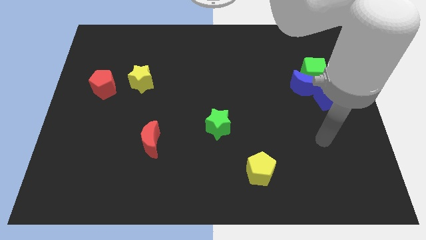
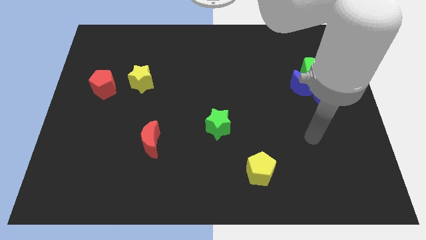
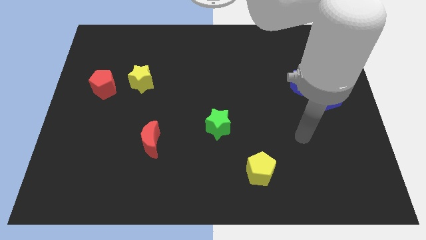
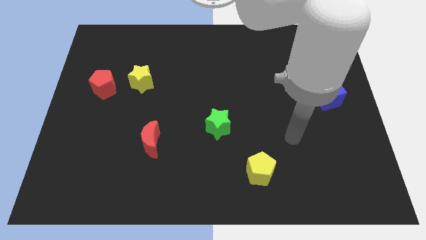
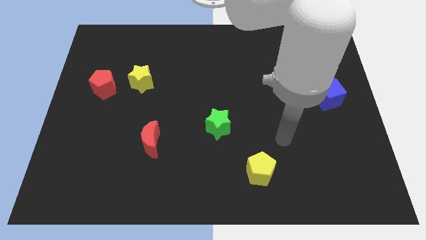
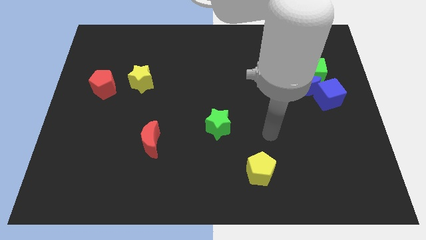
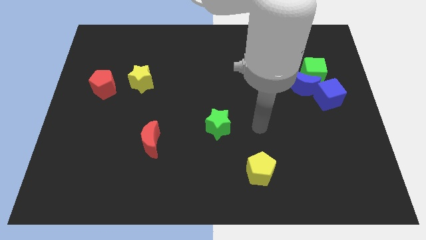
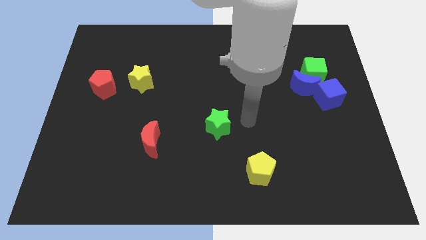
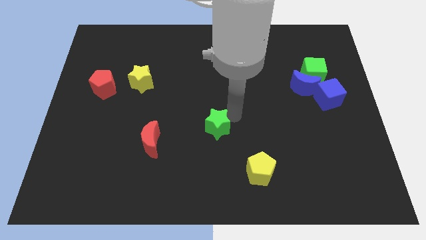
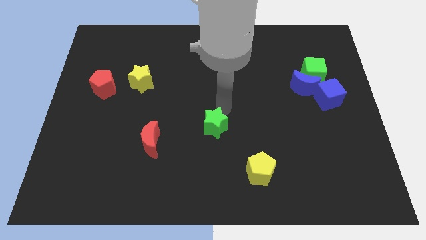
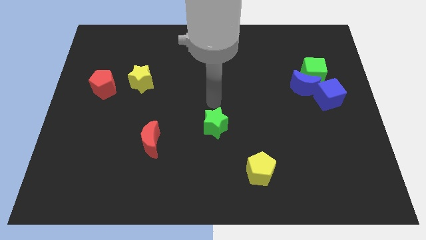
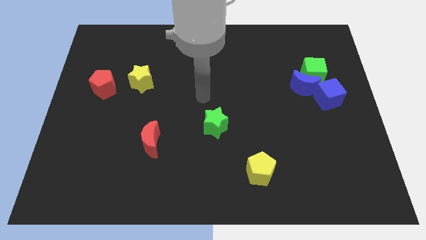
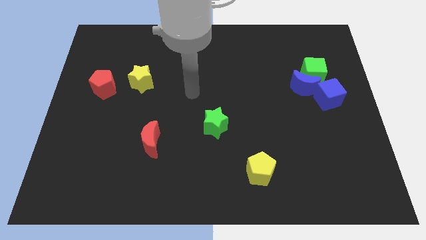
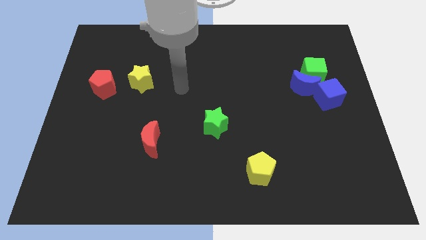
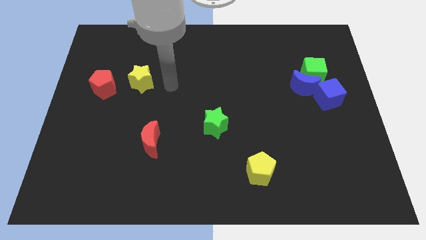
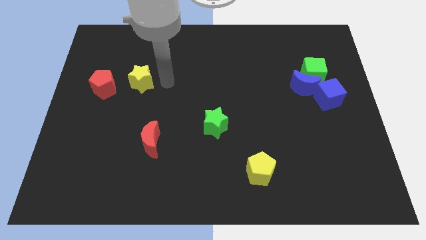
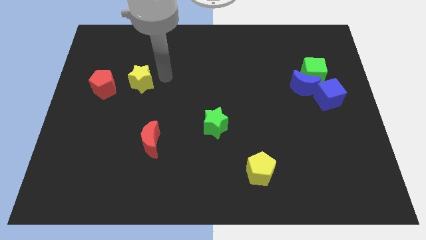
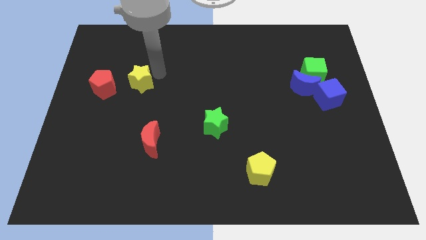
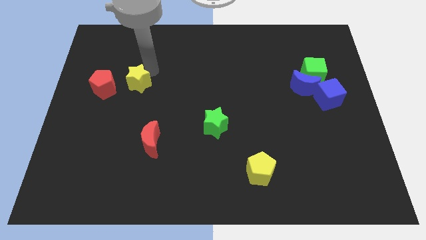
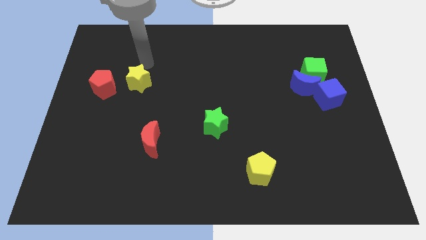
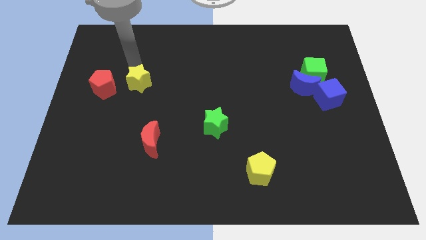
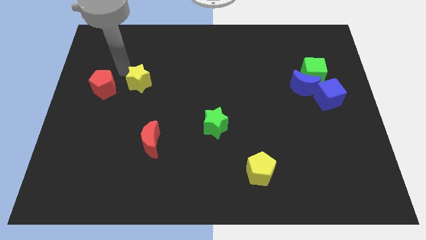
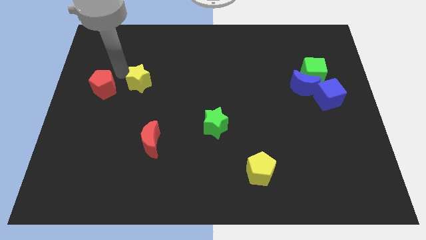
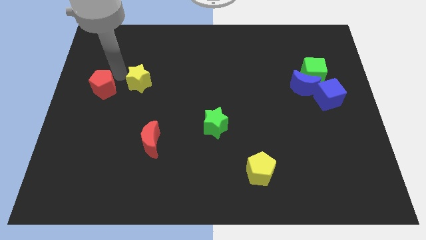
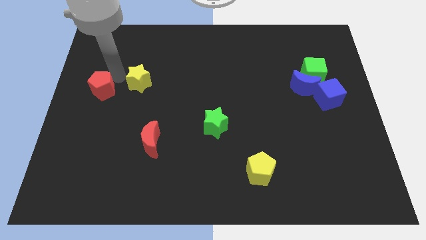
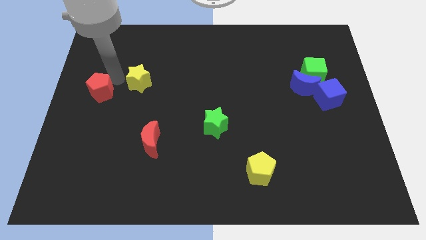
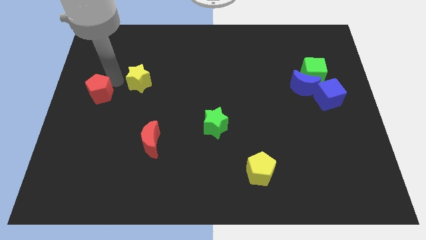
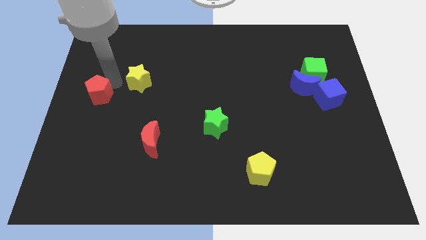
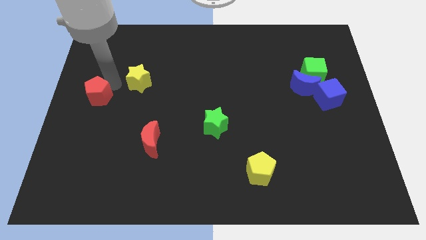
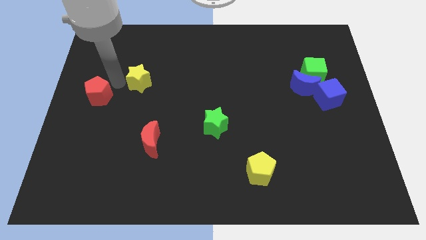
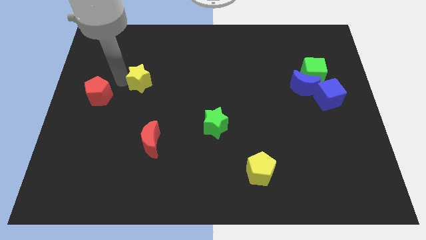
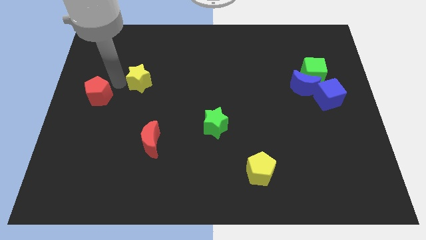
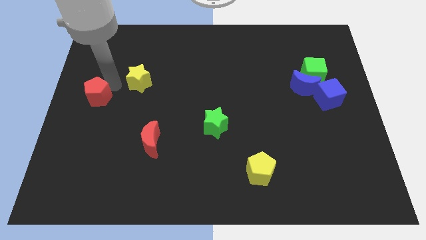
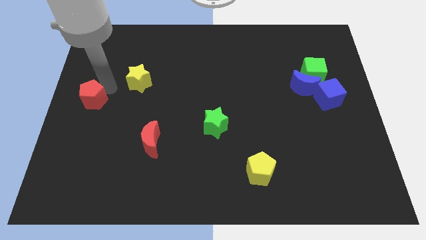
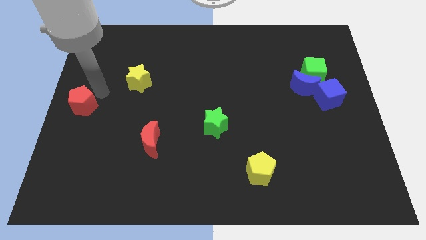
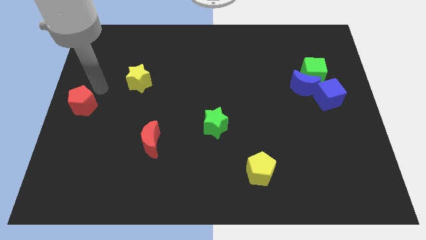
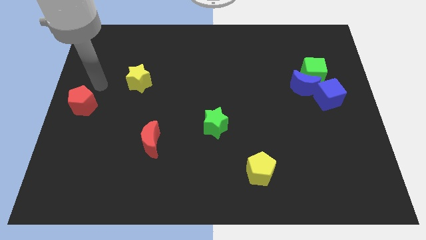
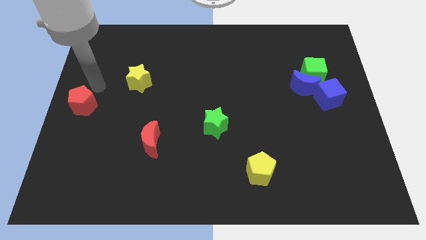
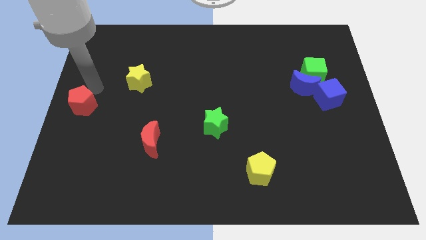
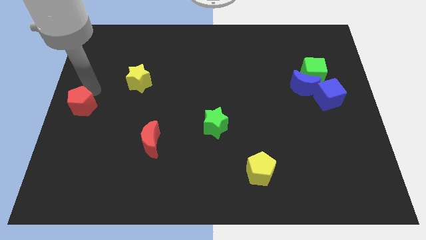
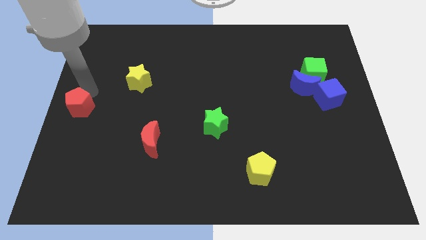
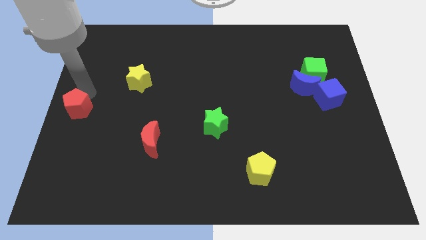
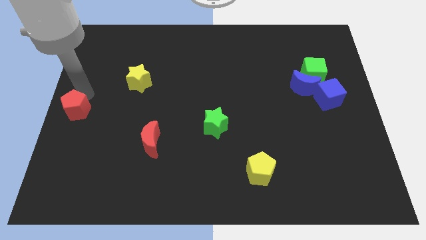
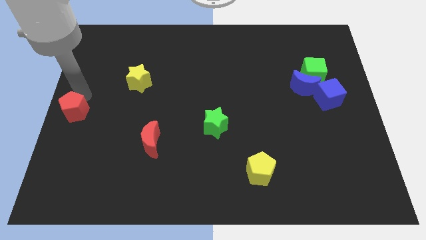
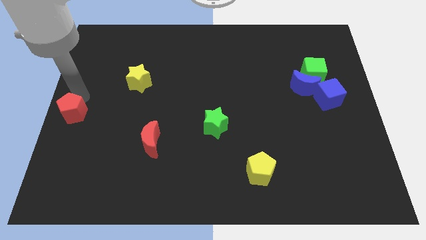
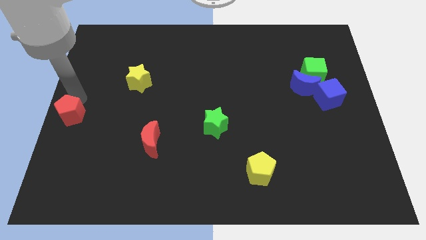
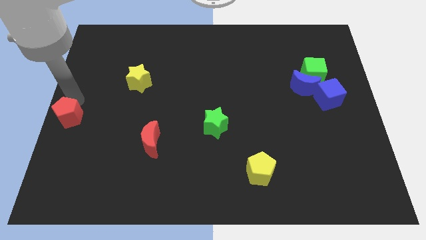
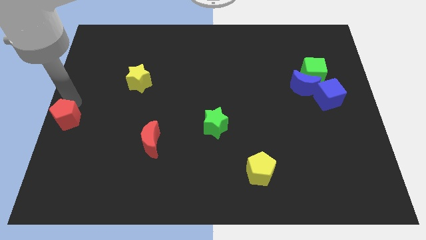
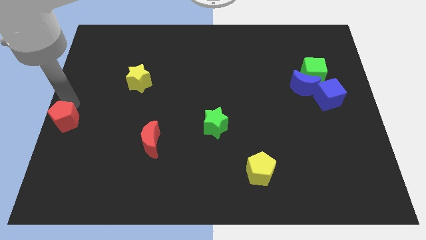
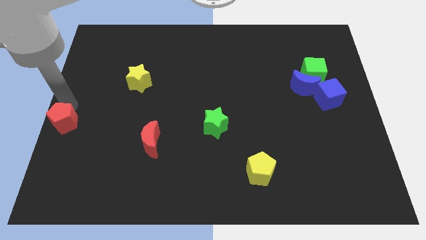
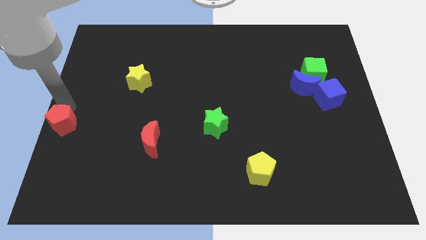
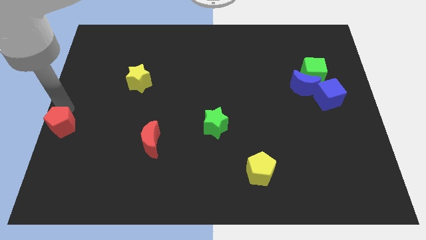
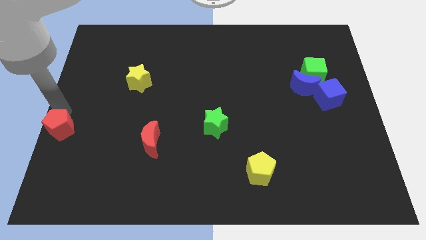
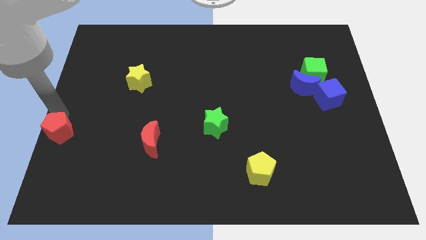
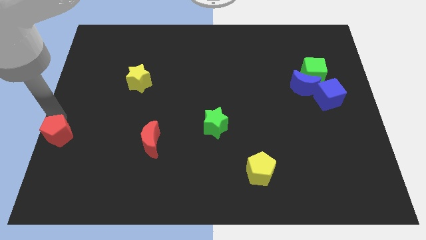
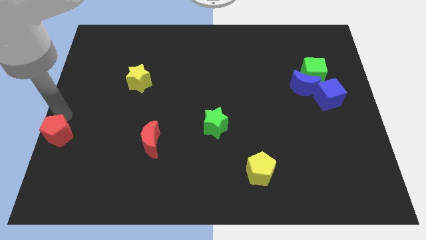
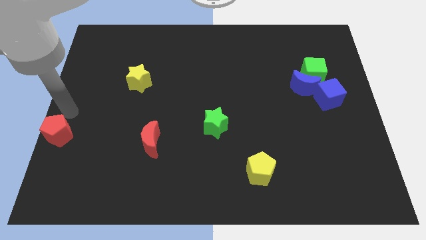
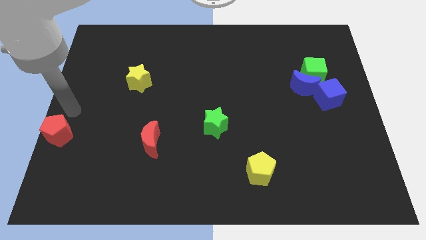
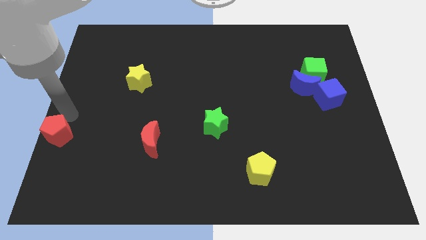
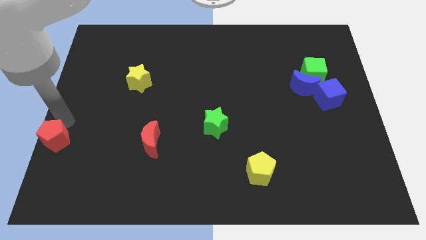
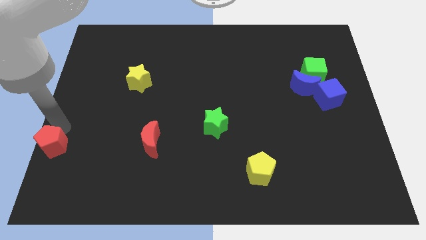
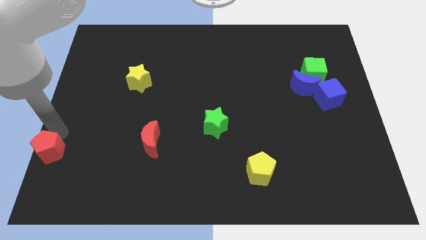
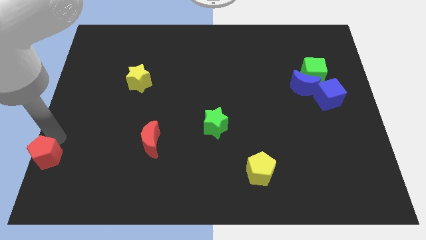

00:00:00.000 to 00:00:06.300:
put the red pentagon to the bottom left corner
